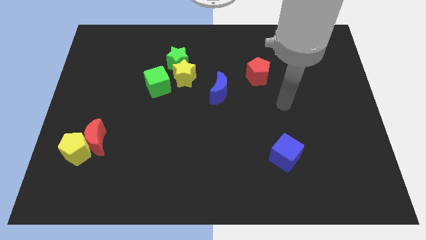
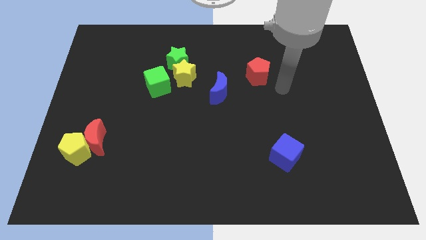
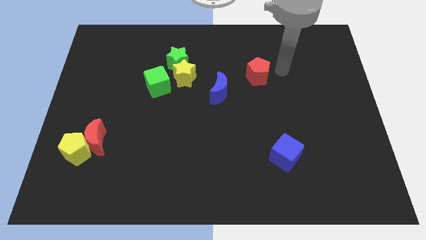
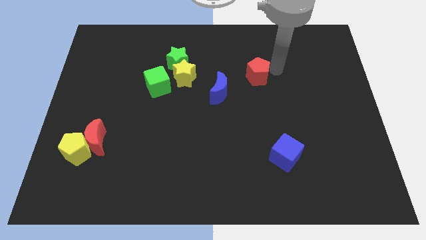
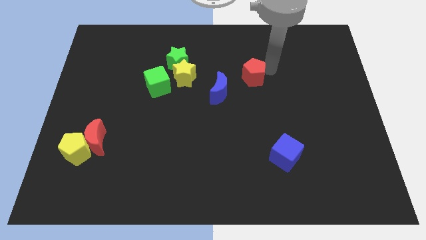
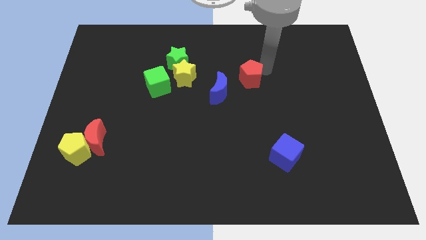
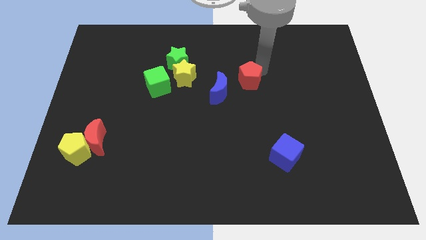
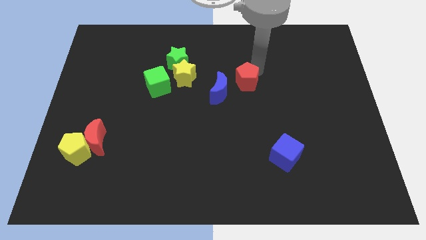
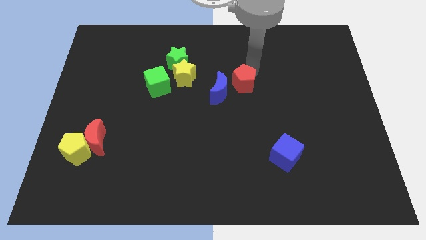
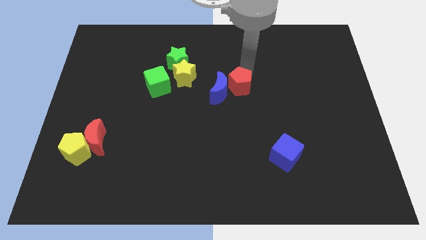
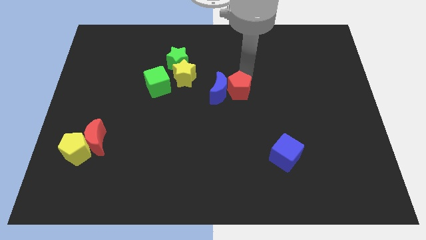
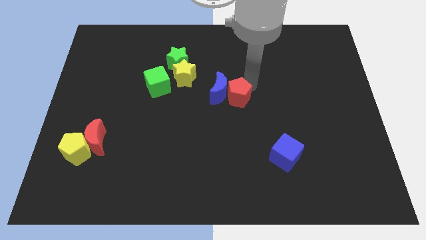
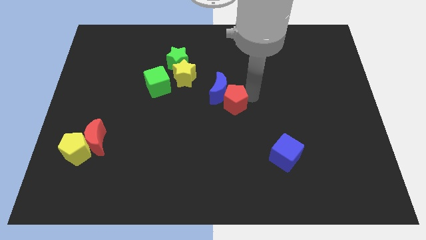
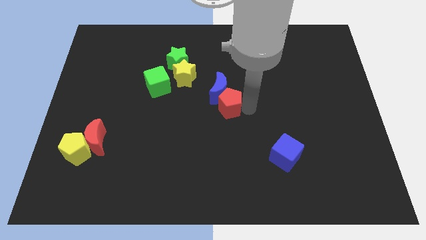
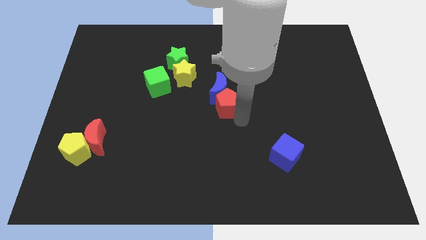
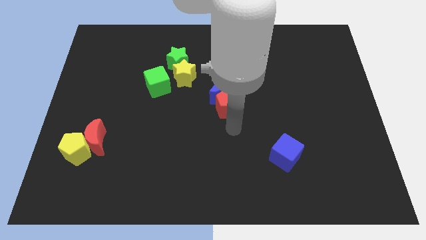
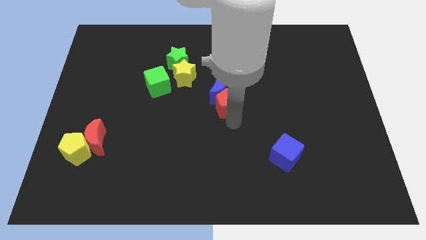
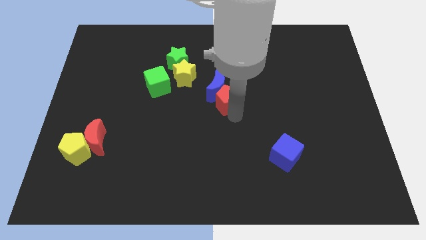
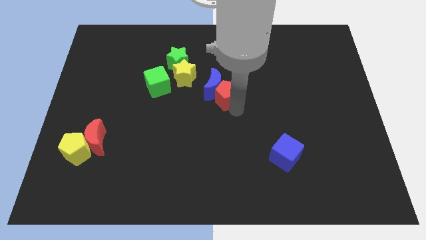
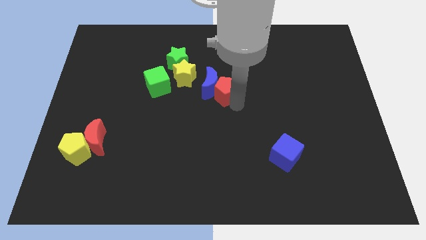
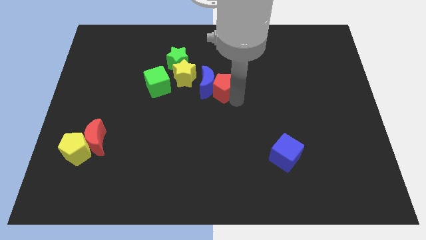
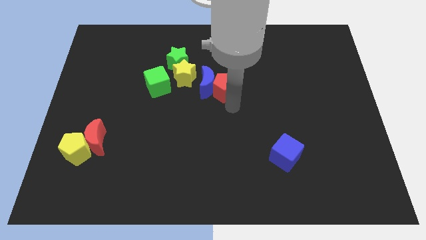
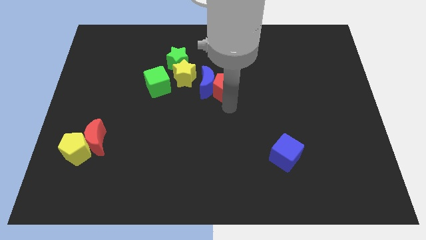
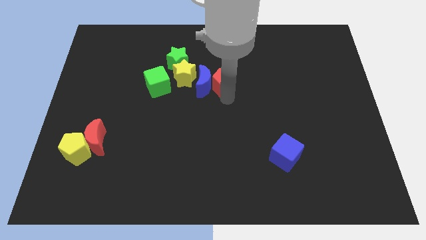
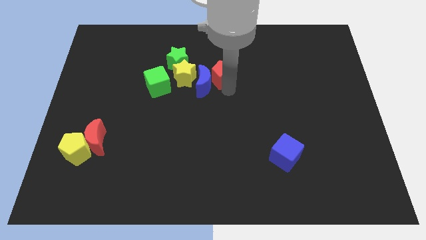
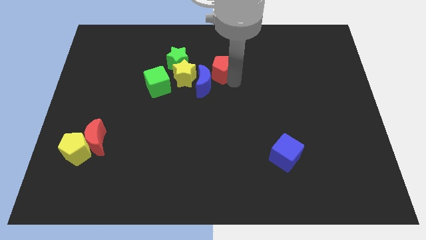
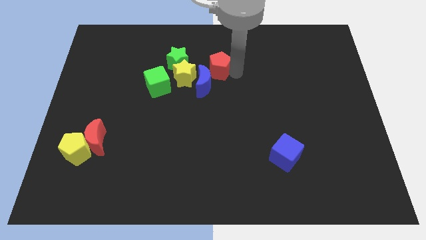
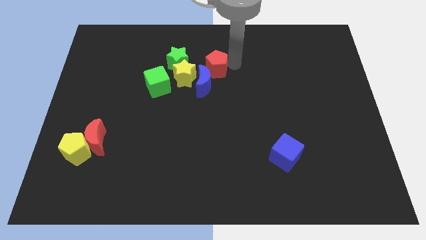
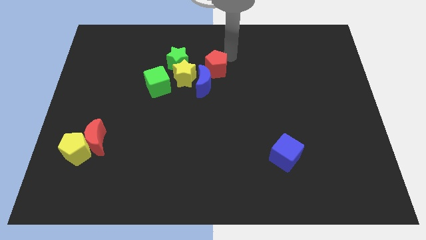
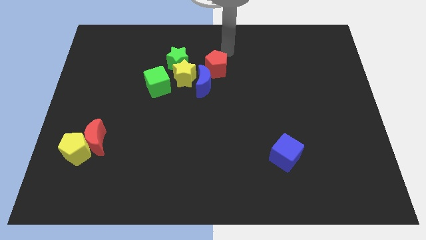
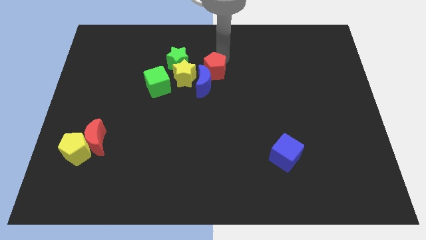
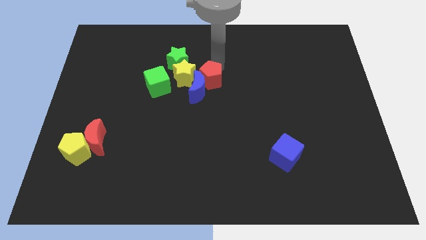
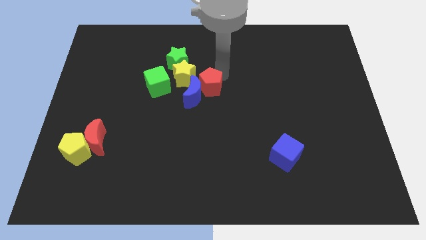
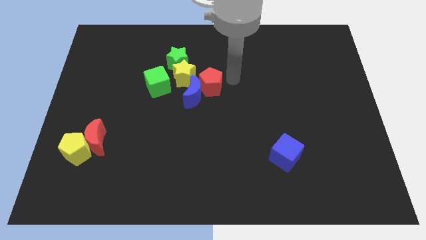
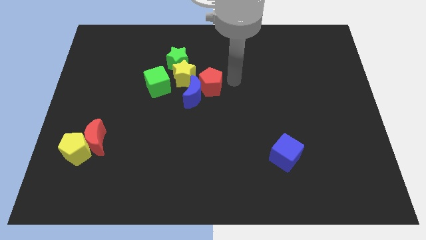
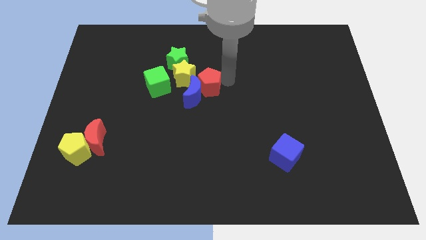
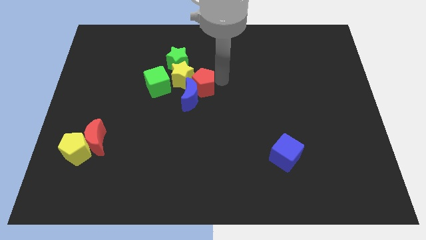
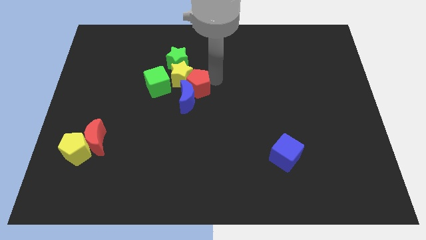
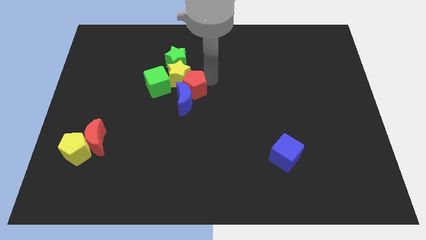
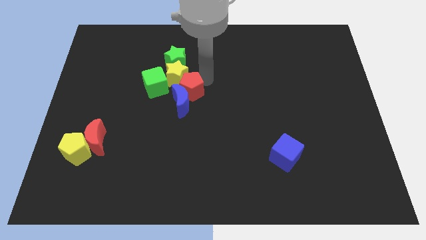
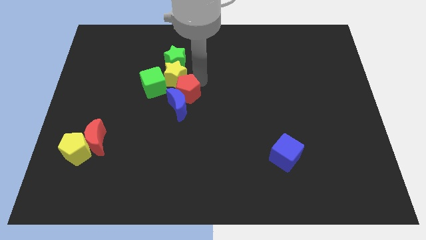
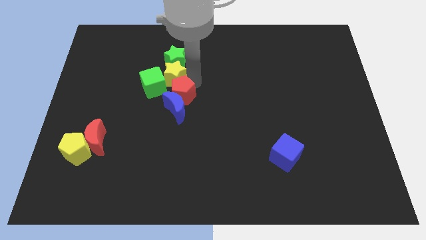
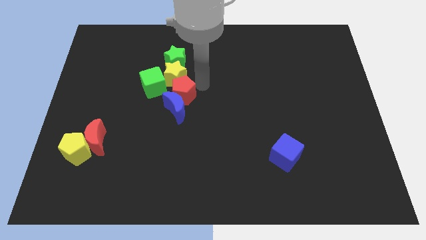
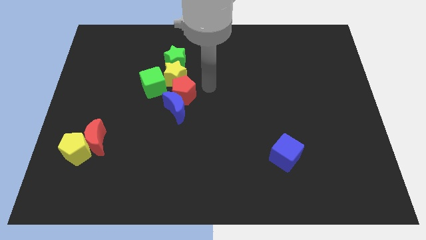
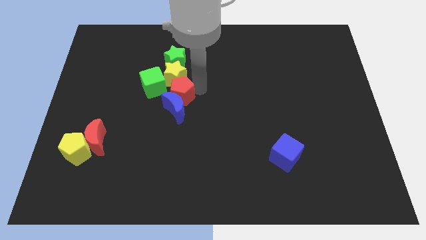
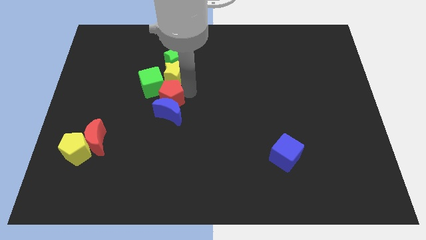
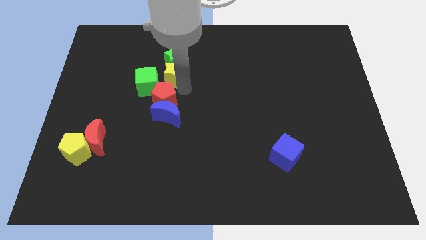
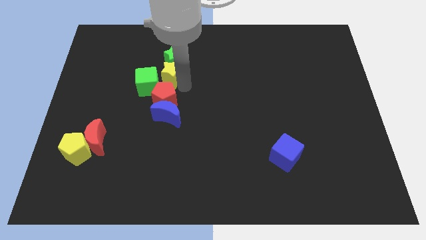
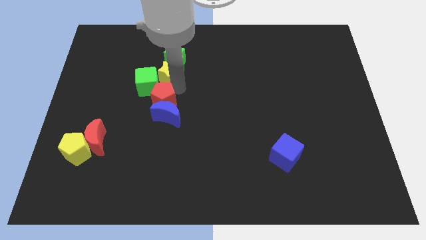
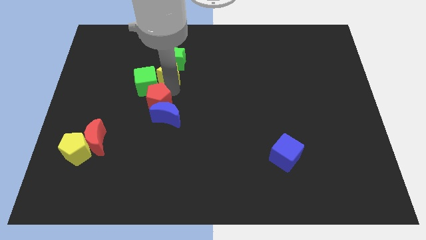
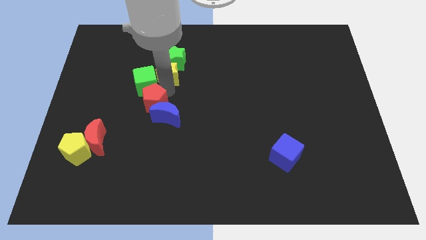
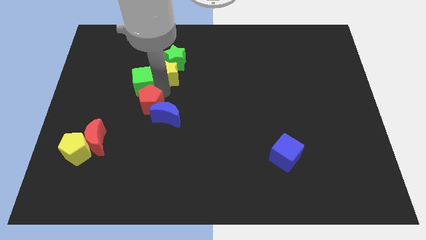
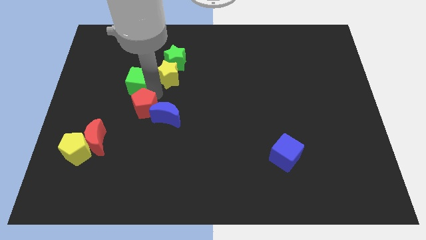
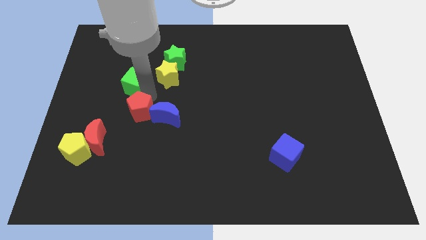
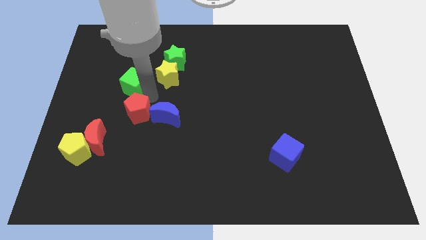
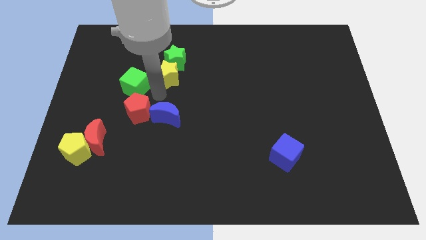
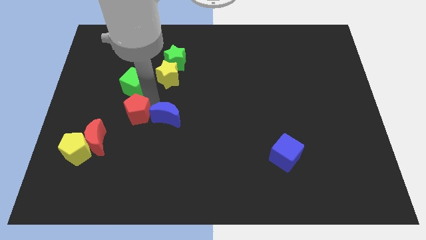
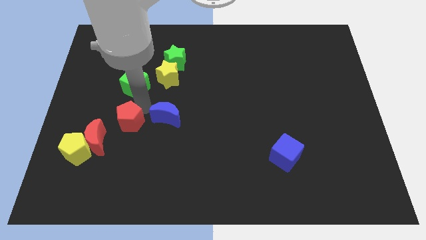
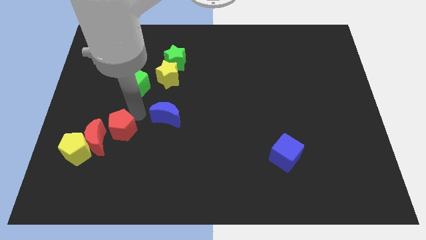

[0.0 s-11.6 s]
move the red pentagon close to the red moon

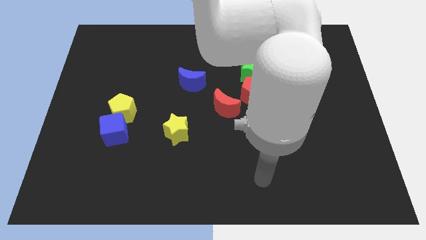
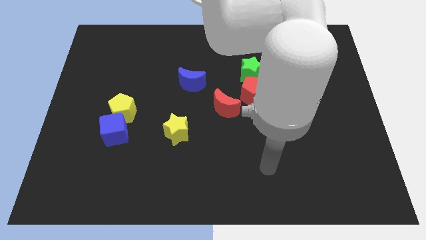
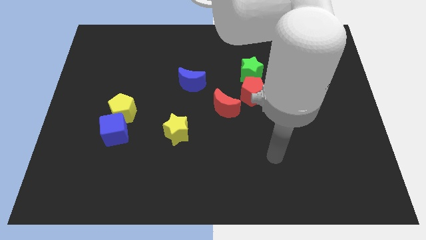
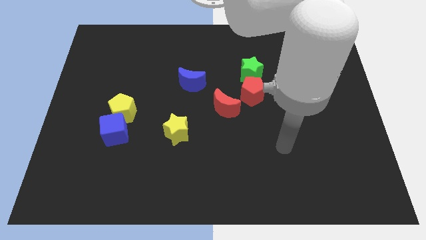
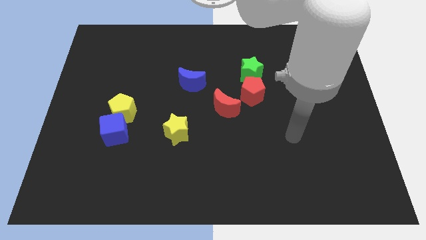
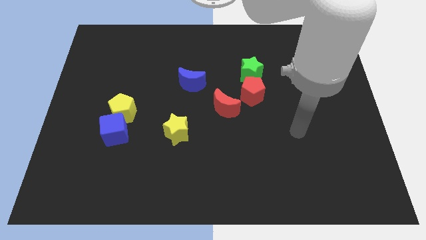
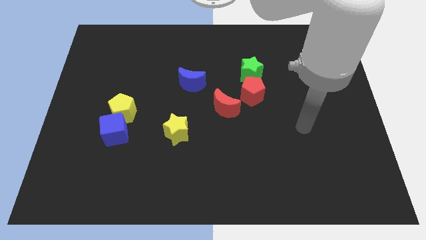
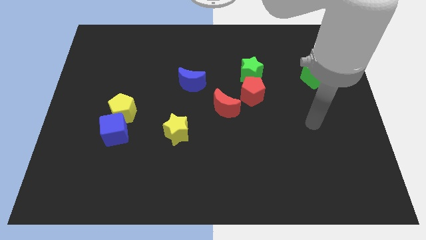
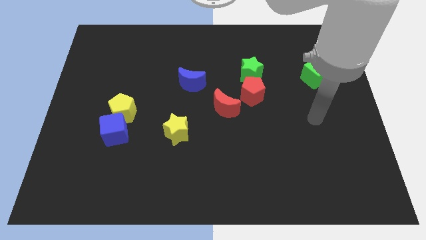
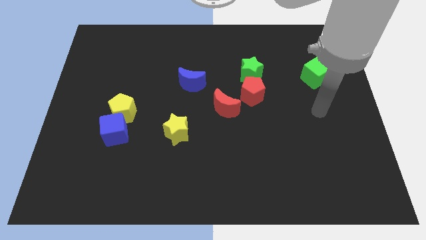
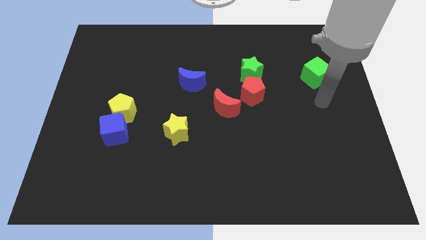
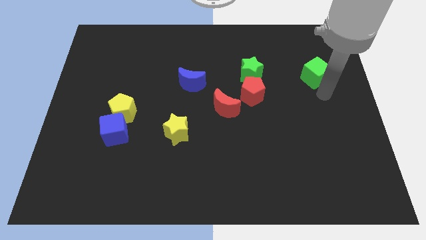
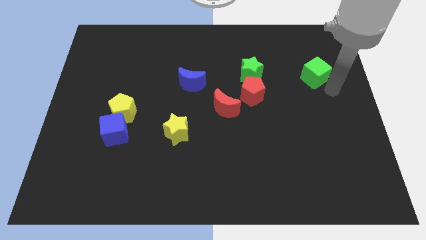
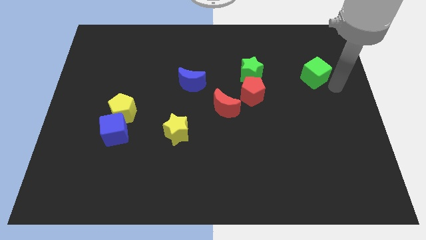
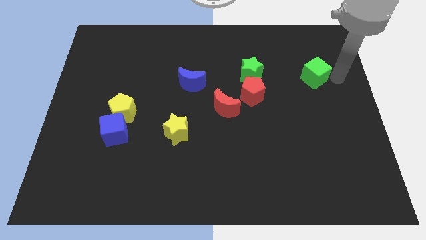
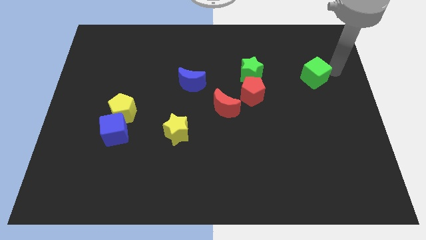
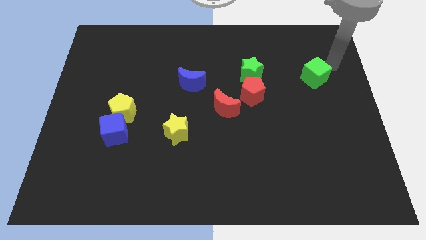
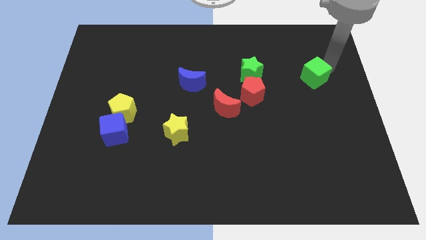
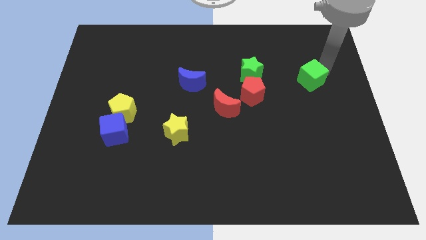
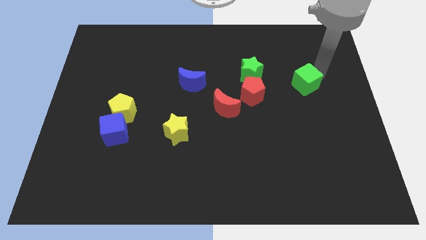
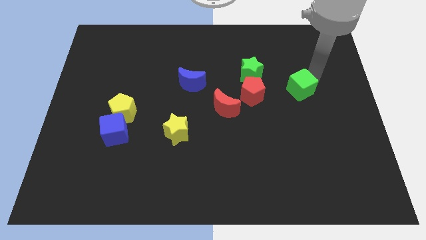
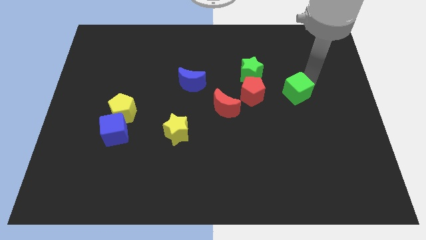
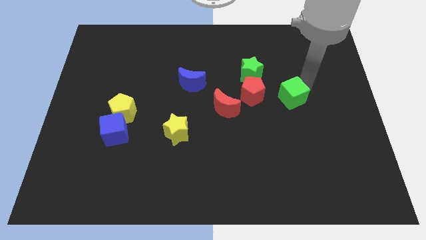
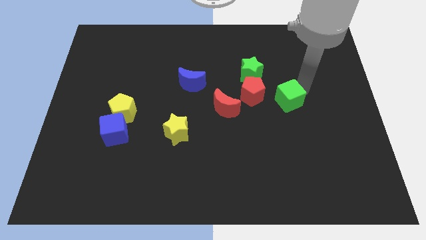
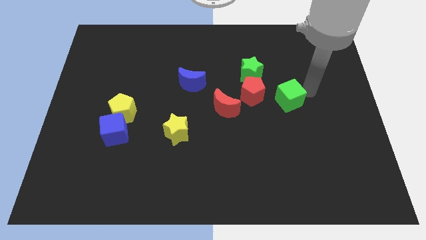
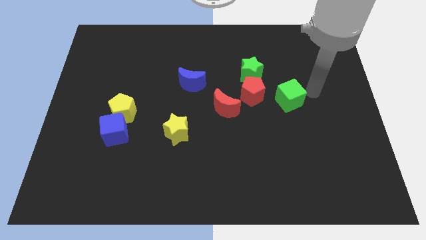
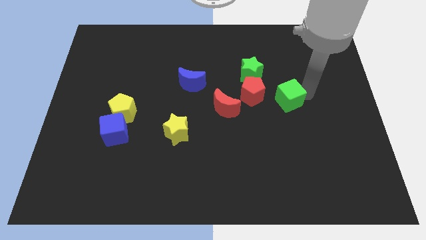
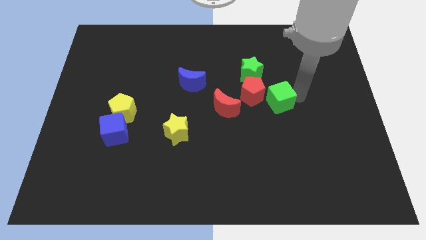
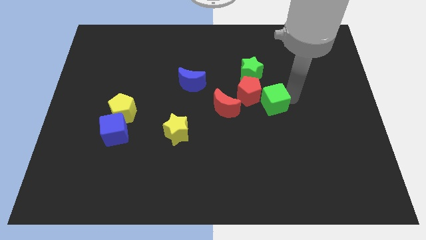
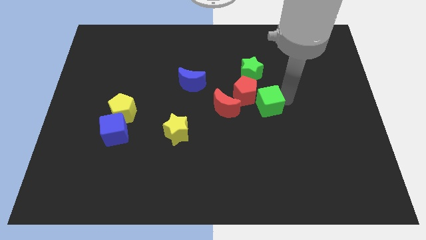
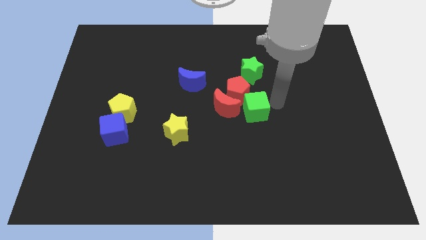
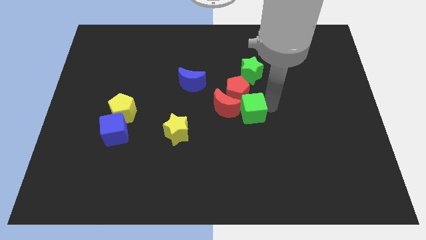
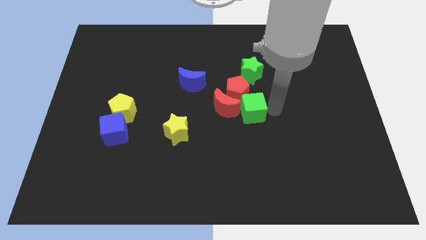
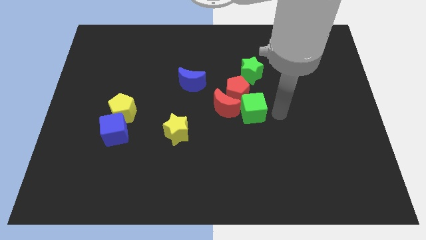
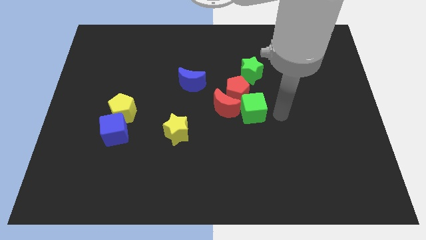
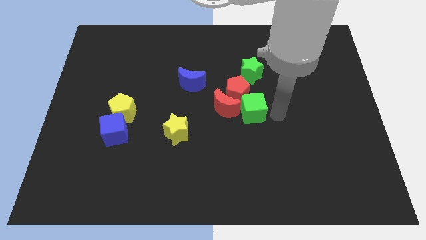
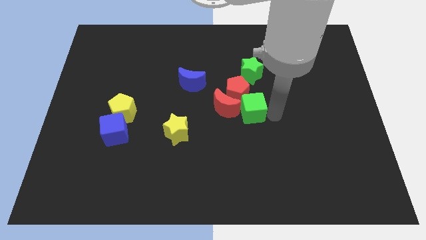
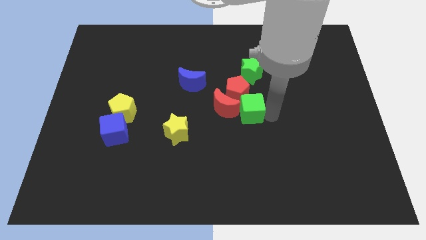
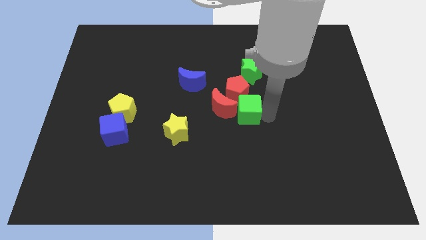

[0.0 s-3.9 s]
slide the green cube to the red moon
